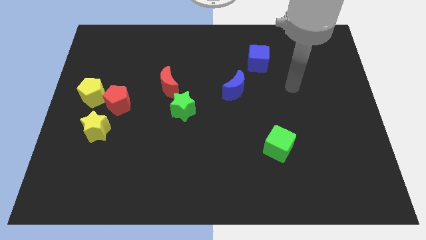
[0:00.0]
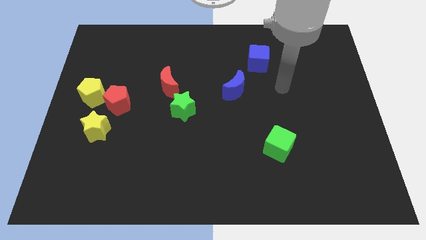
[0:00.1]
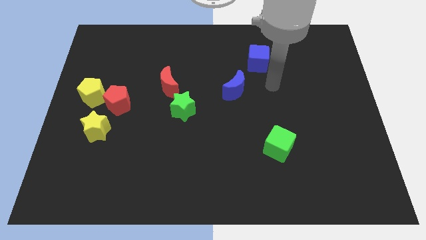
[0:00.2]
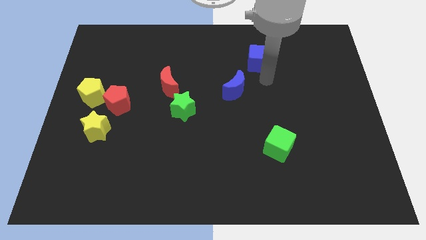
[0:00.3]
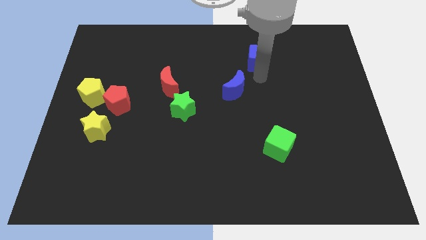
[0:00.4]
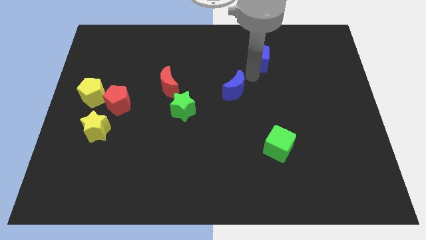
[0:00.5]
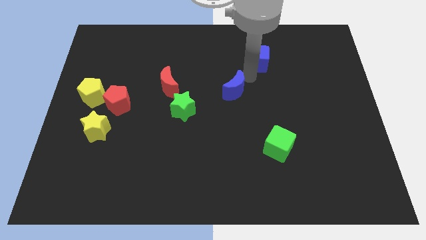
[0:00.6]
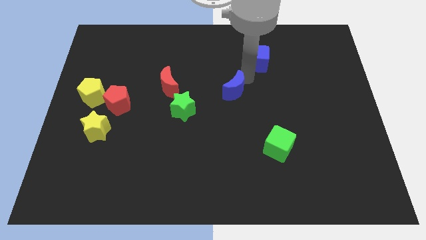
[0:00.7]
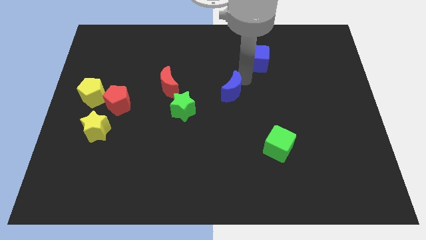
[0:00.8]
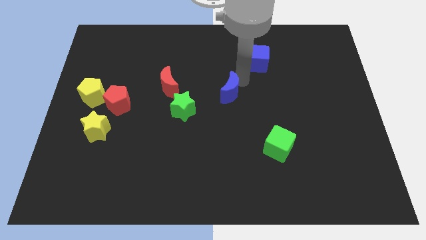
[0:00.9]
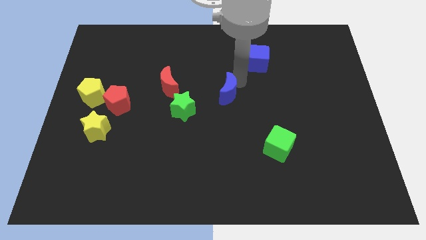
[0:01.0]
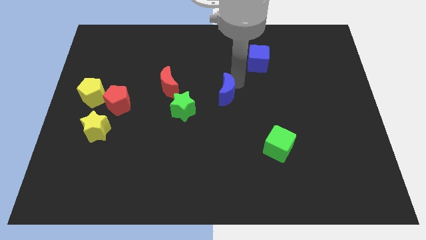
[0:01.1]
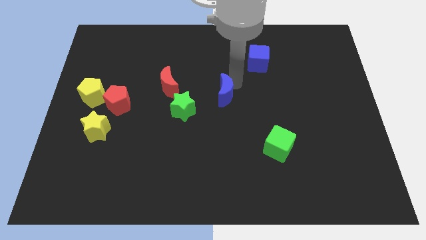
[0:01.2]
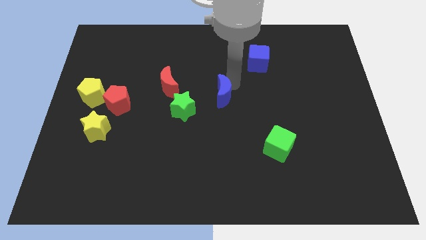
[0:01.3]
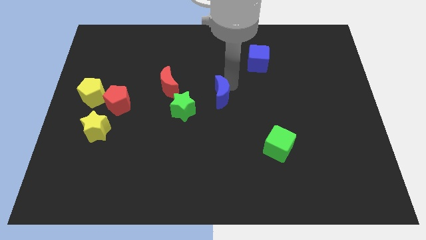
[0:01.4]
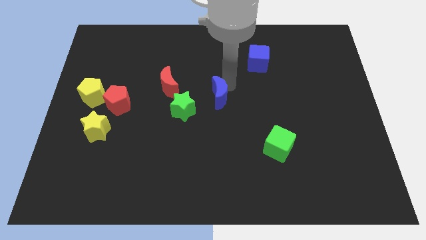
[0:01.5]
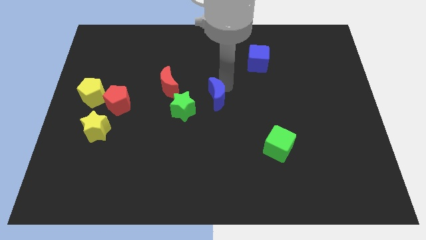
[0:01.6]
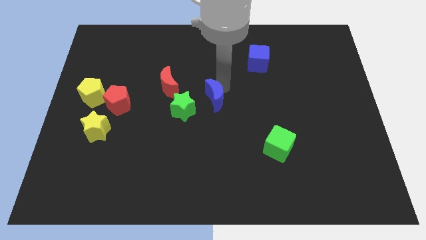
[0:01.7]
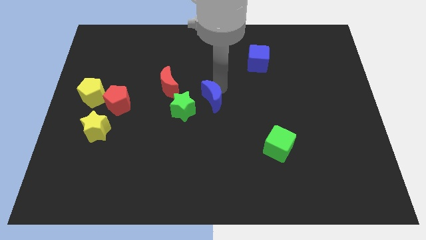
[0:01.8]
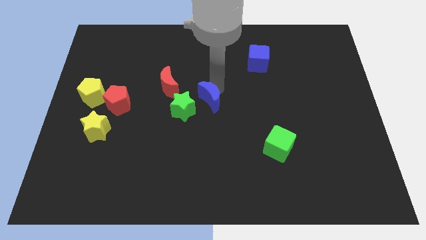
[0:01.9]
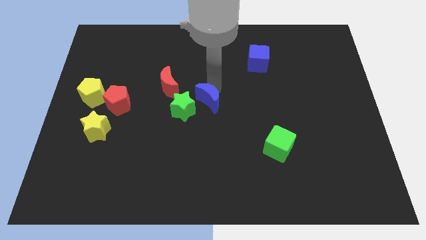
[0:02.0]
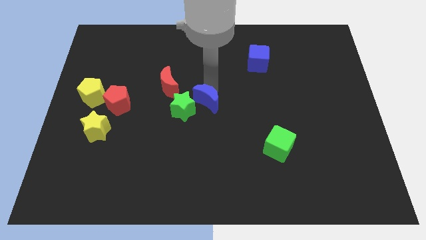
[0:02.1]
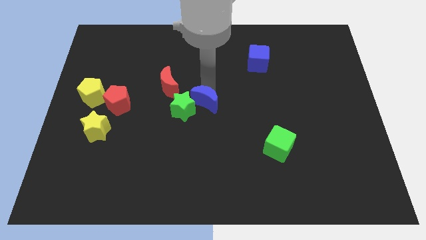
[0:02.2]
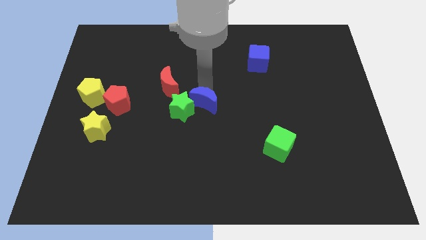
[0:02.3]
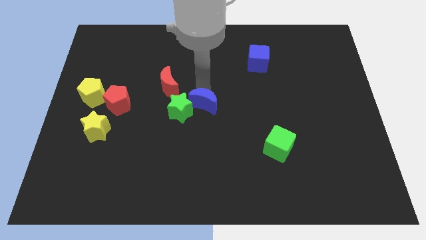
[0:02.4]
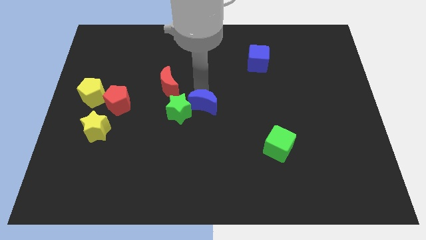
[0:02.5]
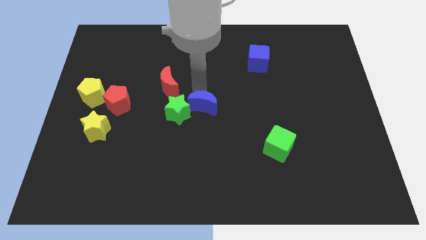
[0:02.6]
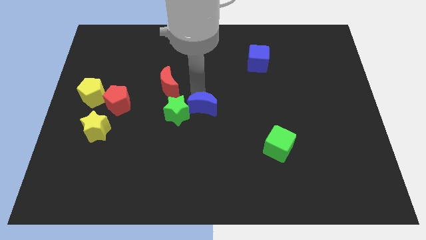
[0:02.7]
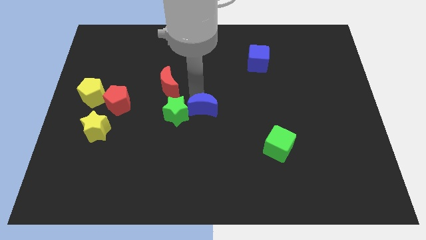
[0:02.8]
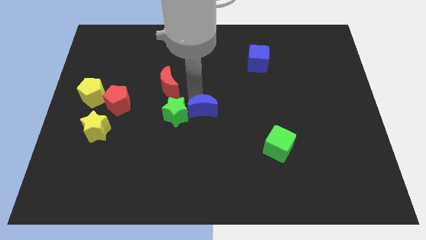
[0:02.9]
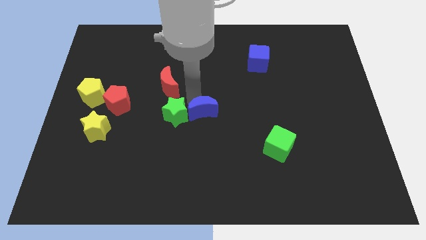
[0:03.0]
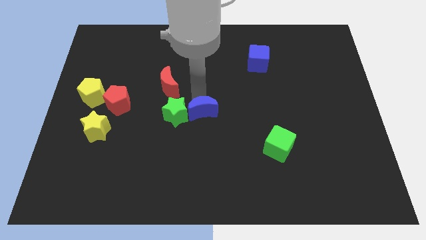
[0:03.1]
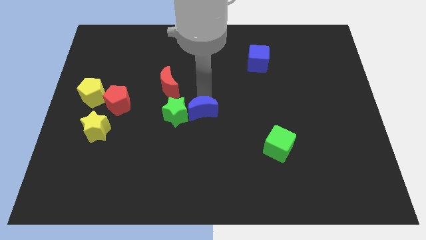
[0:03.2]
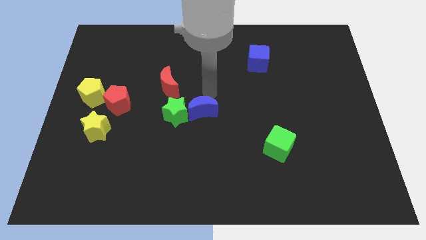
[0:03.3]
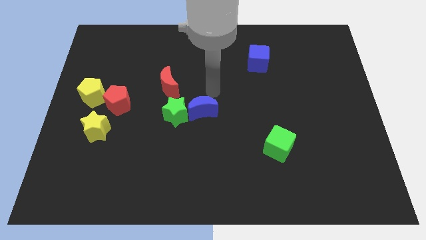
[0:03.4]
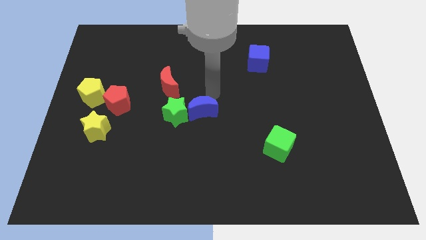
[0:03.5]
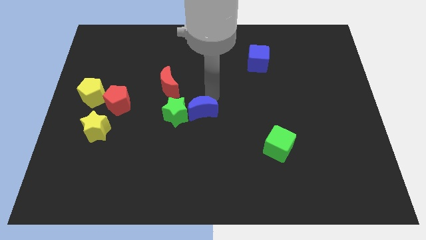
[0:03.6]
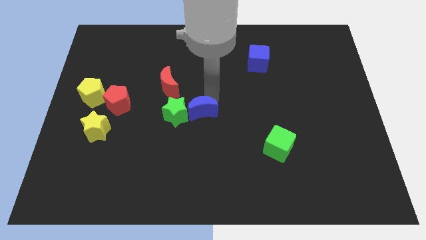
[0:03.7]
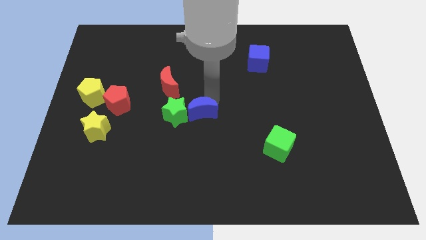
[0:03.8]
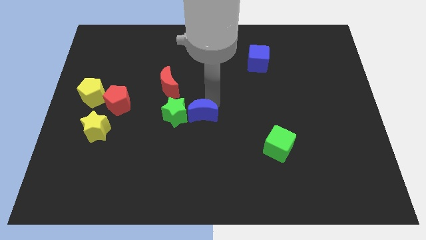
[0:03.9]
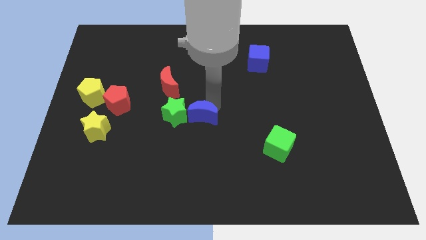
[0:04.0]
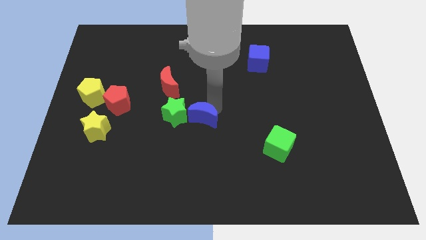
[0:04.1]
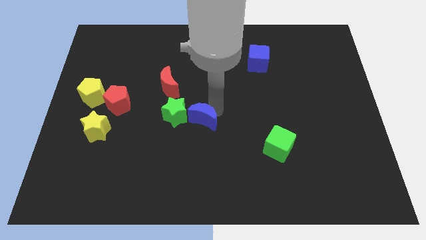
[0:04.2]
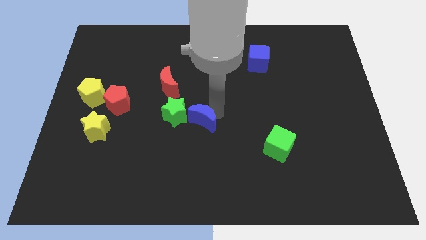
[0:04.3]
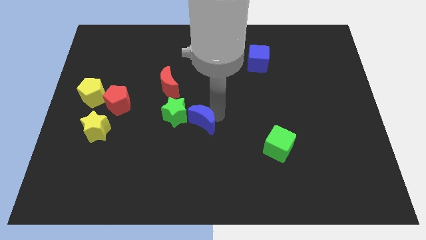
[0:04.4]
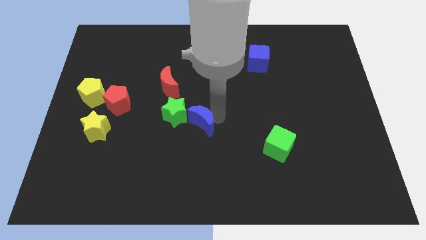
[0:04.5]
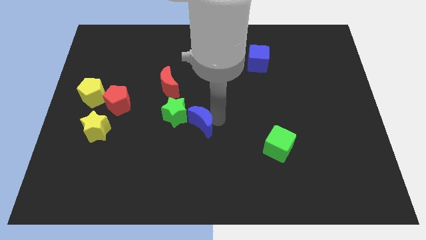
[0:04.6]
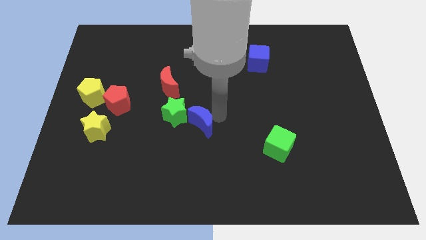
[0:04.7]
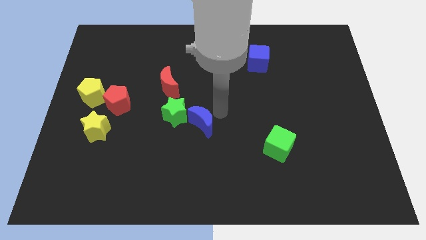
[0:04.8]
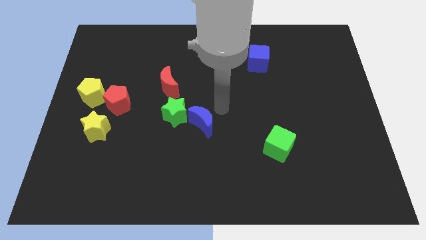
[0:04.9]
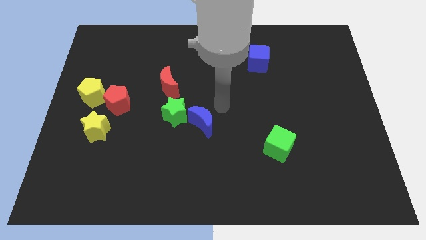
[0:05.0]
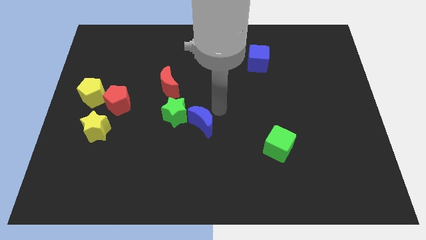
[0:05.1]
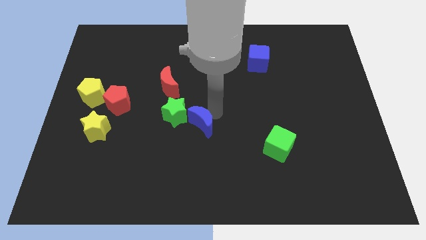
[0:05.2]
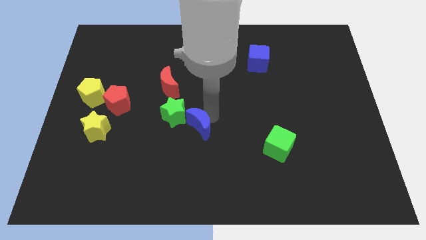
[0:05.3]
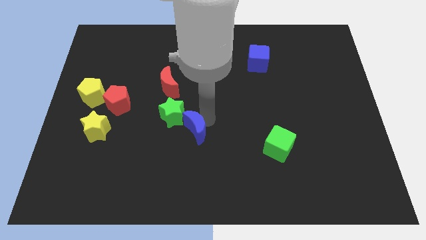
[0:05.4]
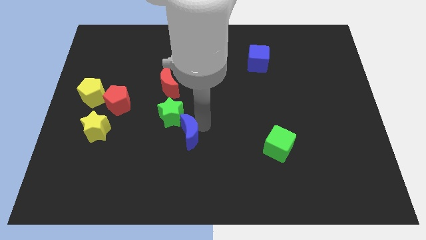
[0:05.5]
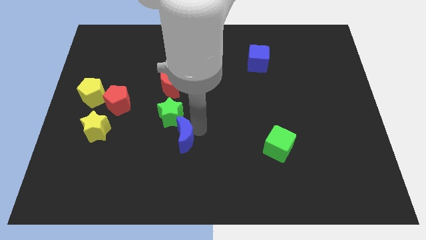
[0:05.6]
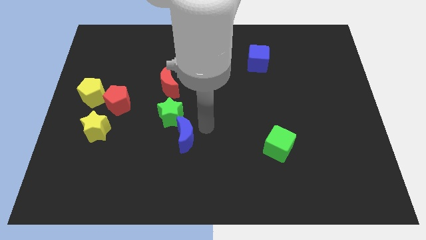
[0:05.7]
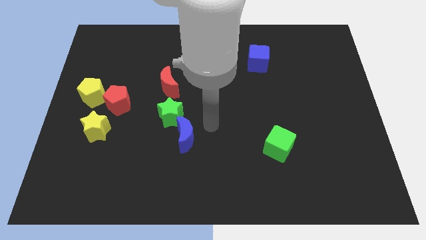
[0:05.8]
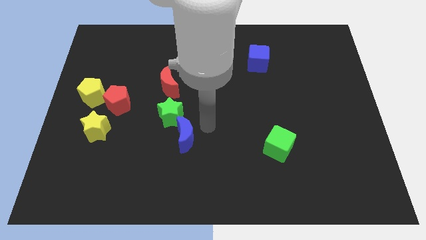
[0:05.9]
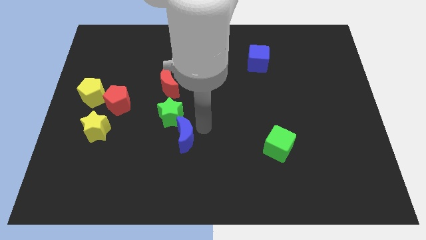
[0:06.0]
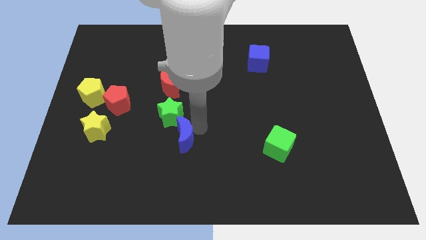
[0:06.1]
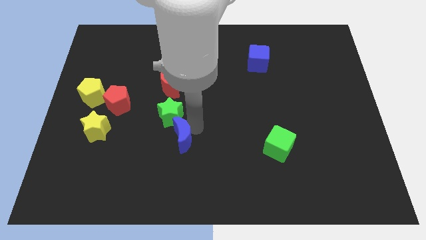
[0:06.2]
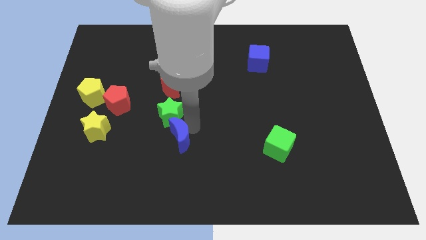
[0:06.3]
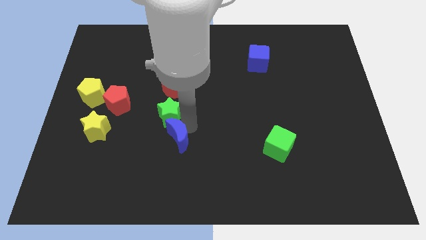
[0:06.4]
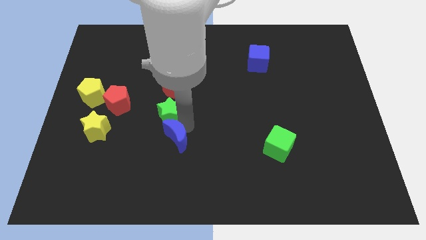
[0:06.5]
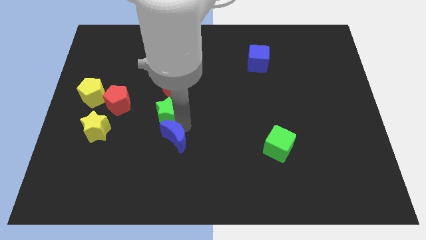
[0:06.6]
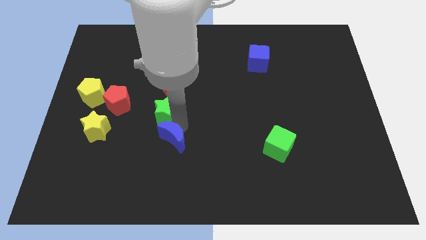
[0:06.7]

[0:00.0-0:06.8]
move the blue moon downwards and left

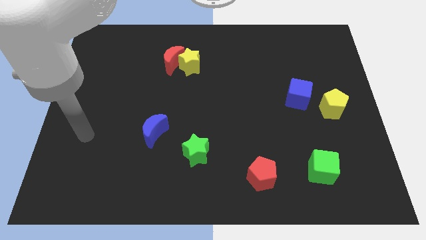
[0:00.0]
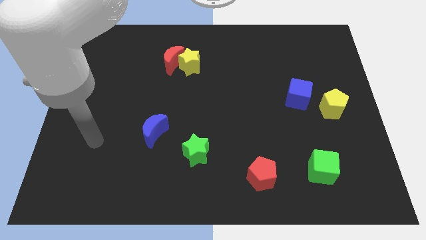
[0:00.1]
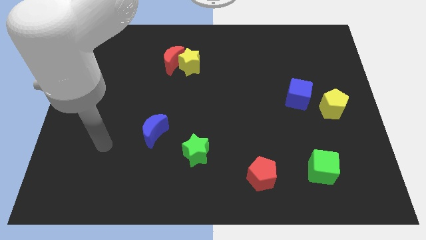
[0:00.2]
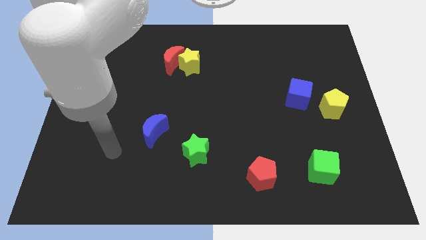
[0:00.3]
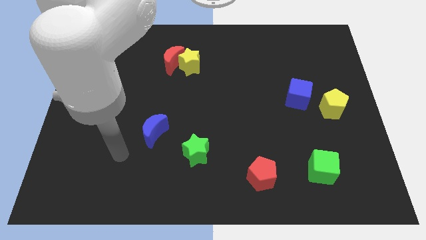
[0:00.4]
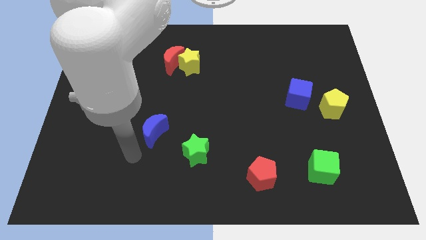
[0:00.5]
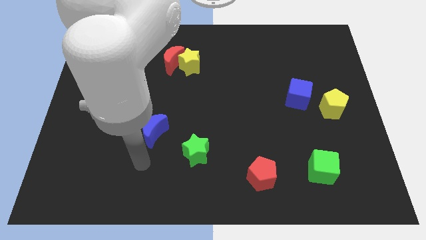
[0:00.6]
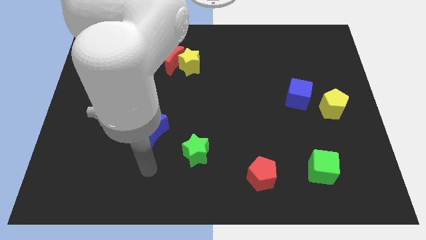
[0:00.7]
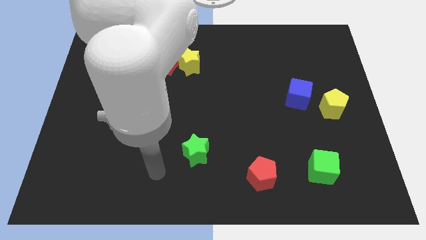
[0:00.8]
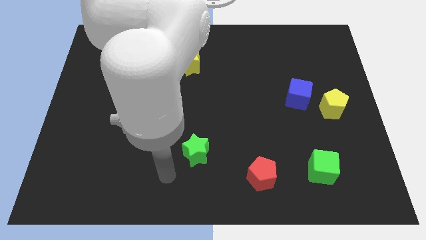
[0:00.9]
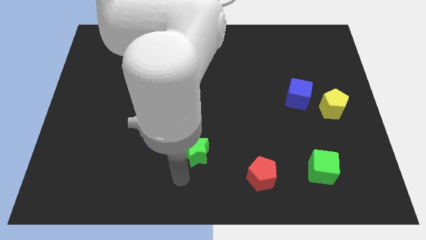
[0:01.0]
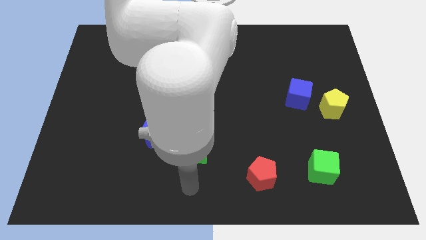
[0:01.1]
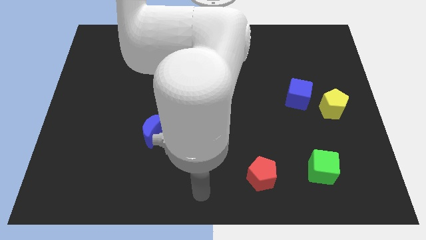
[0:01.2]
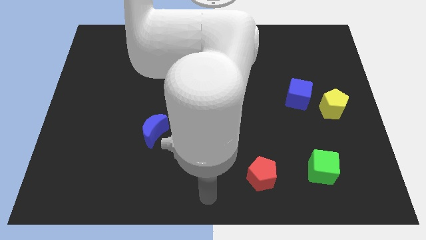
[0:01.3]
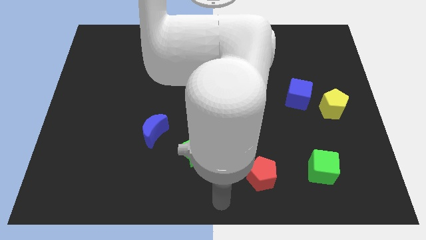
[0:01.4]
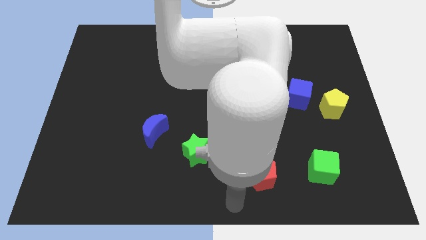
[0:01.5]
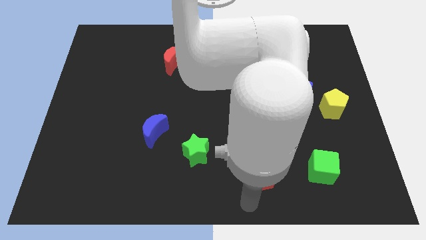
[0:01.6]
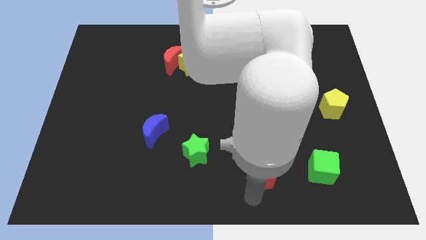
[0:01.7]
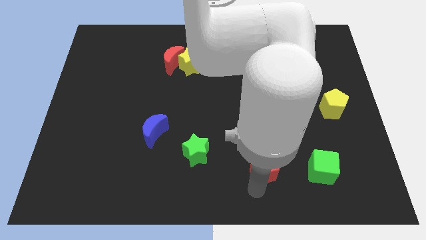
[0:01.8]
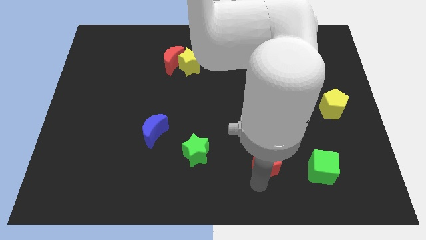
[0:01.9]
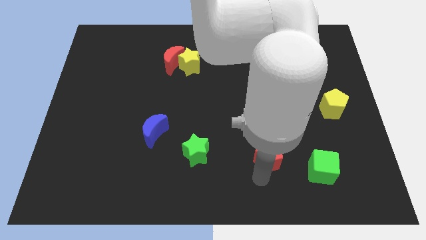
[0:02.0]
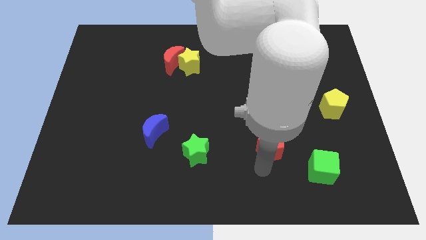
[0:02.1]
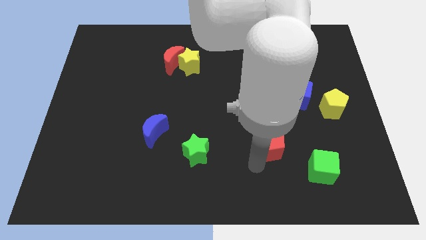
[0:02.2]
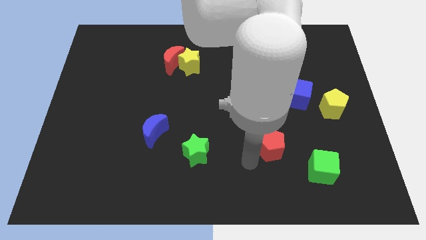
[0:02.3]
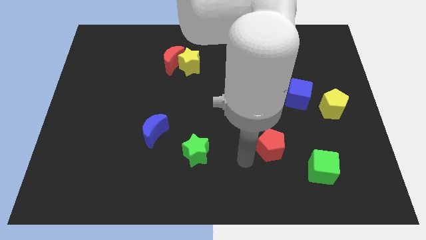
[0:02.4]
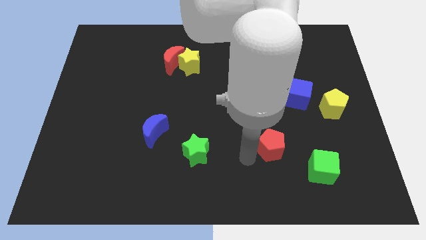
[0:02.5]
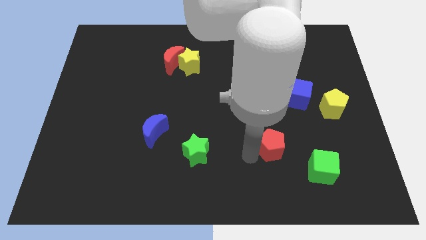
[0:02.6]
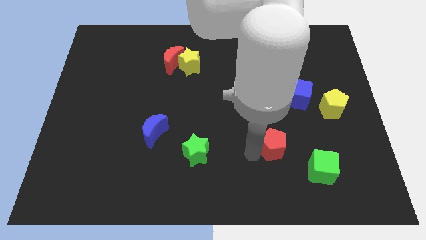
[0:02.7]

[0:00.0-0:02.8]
move the red pentagon somewhat diagonally up and right
